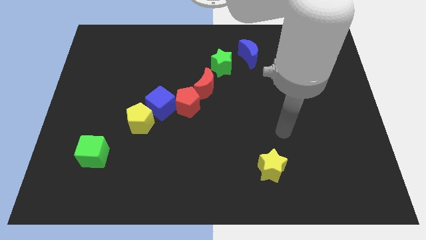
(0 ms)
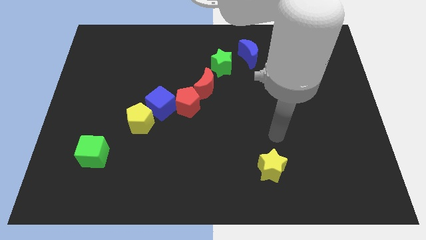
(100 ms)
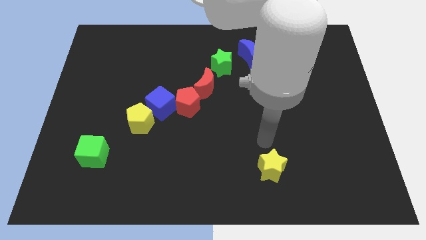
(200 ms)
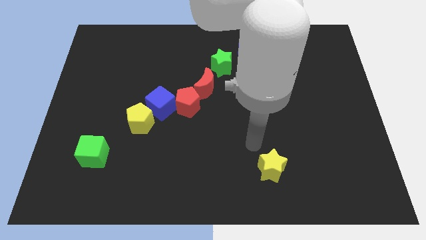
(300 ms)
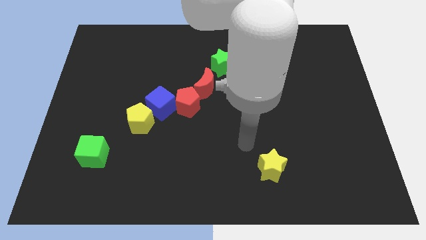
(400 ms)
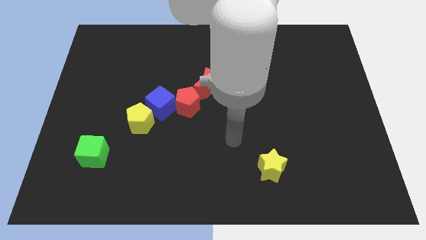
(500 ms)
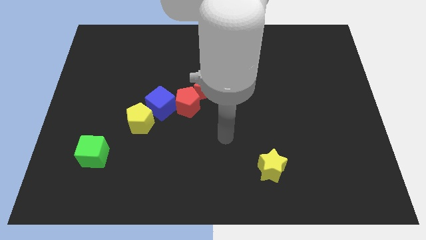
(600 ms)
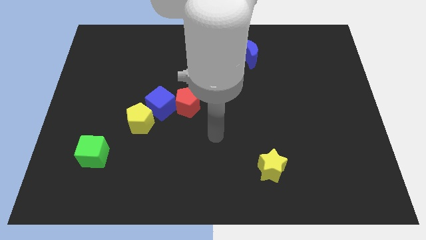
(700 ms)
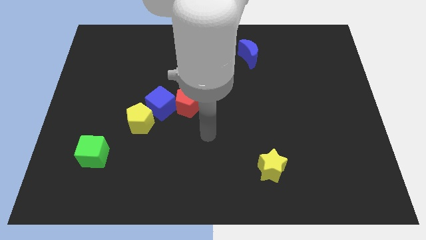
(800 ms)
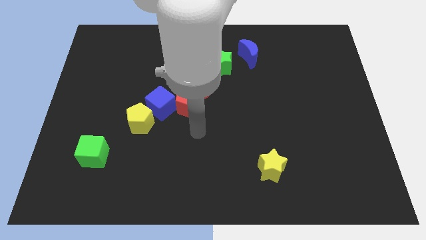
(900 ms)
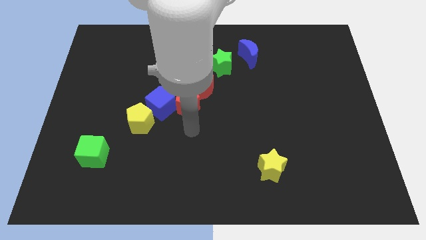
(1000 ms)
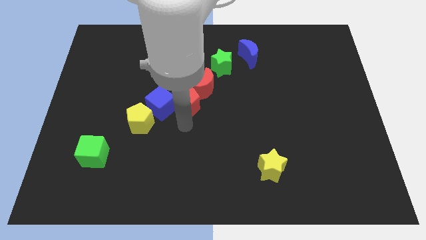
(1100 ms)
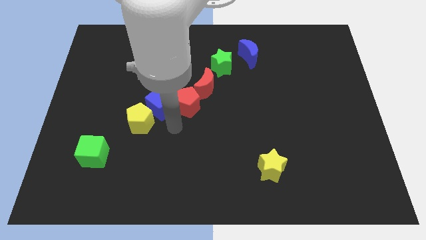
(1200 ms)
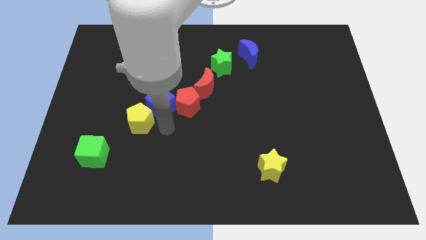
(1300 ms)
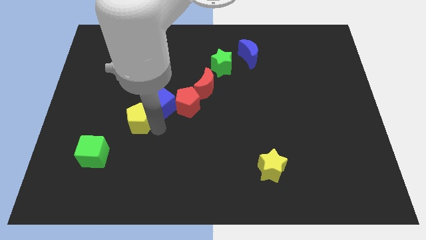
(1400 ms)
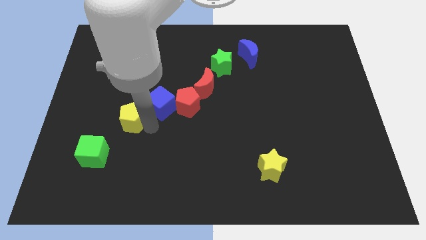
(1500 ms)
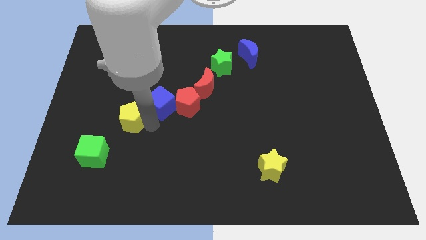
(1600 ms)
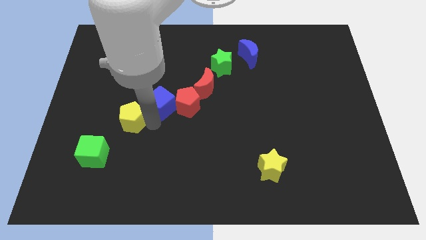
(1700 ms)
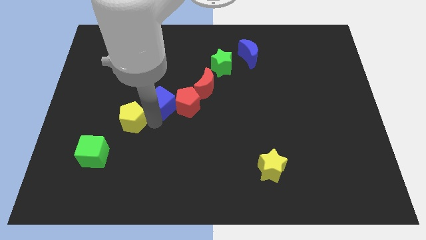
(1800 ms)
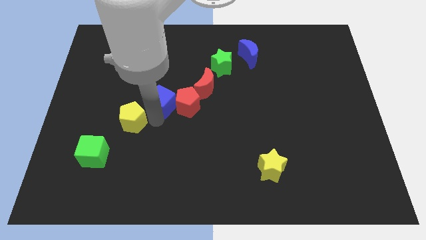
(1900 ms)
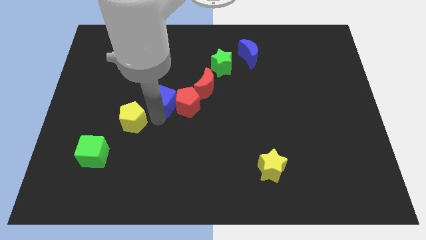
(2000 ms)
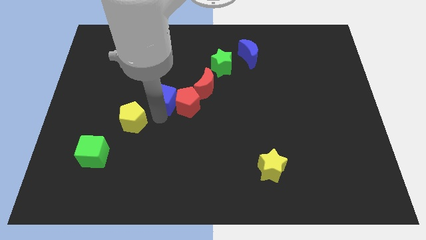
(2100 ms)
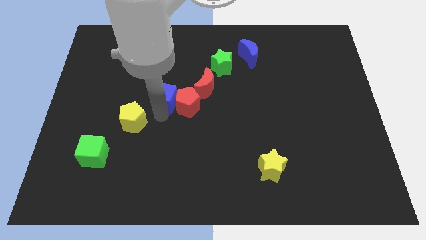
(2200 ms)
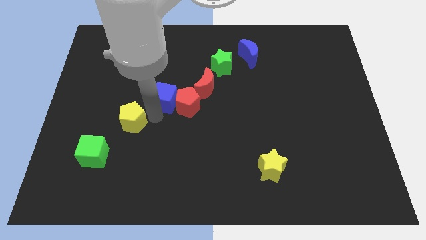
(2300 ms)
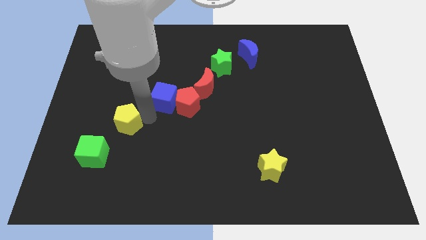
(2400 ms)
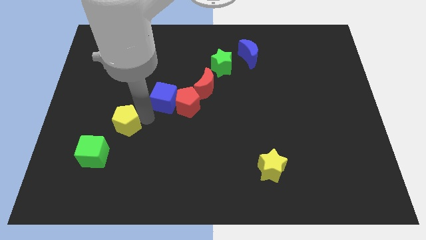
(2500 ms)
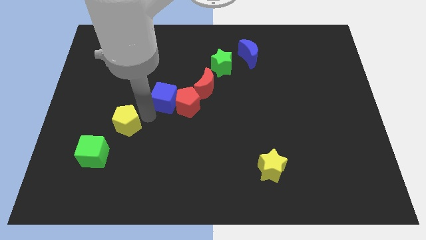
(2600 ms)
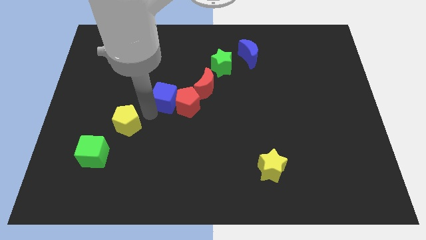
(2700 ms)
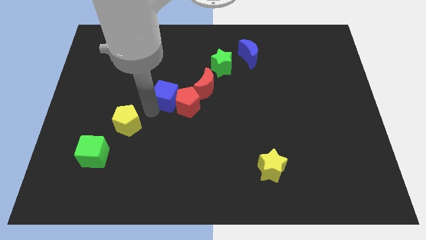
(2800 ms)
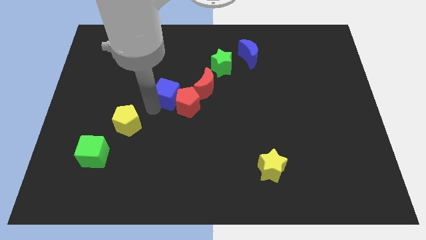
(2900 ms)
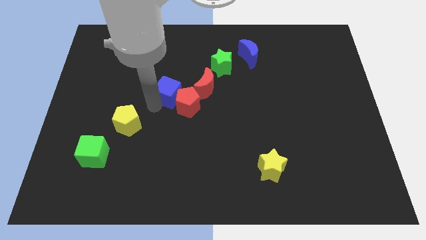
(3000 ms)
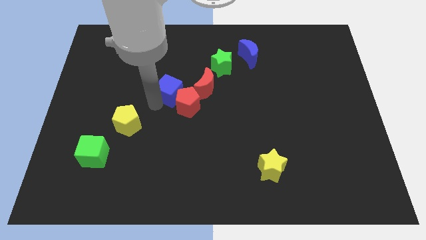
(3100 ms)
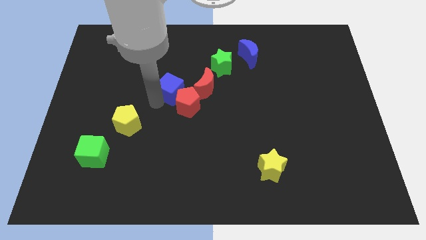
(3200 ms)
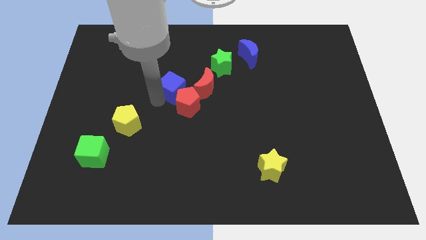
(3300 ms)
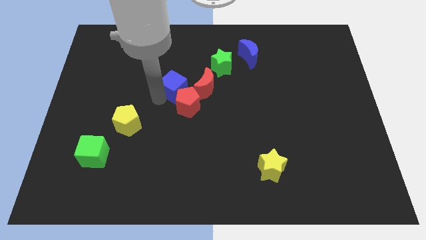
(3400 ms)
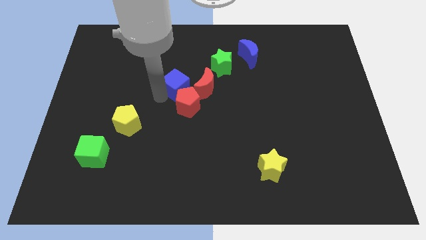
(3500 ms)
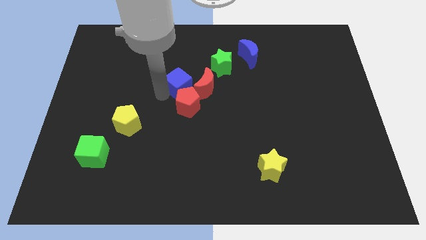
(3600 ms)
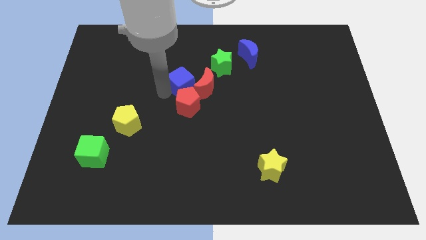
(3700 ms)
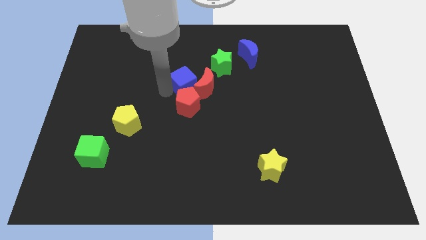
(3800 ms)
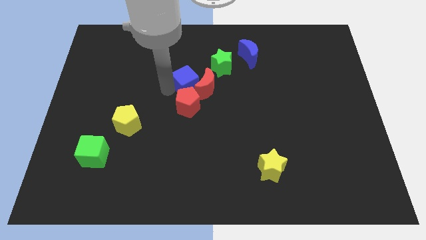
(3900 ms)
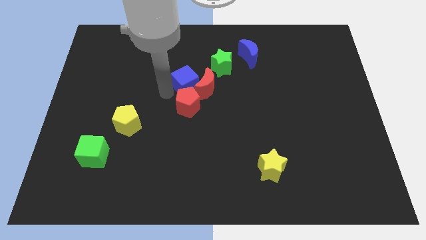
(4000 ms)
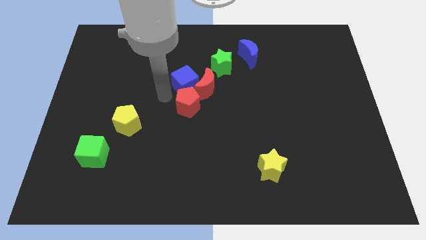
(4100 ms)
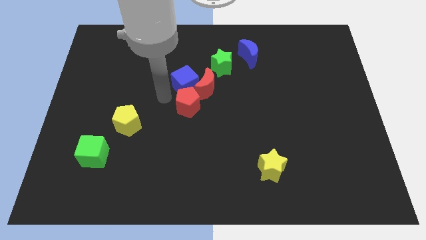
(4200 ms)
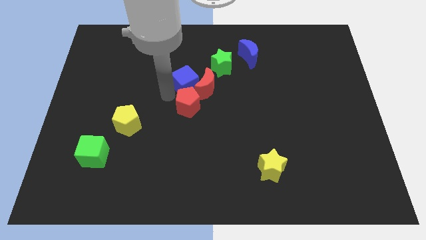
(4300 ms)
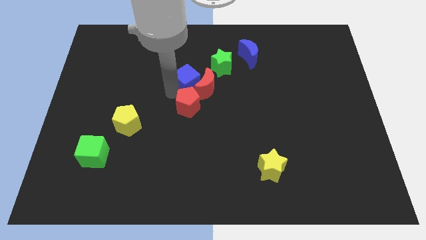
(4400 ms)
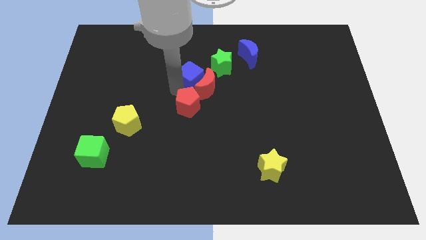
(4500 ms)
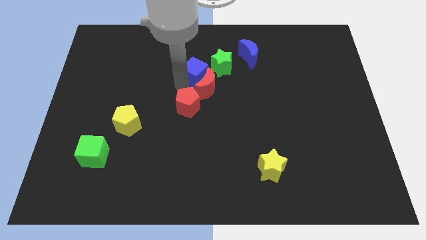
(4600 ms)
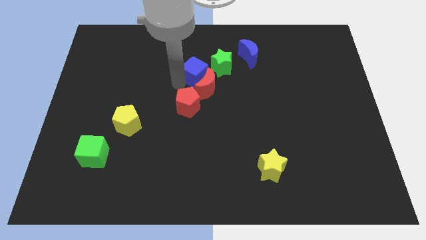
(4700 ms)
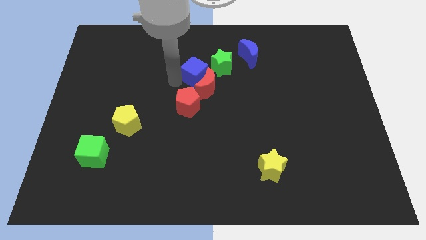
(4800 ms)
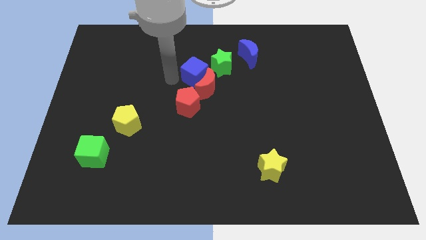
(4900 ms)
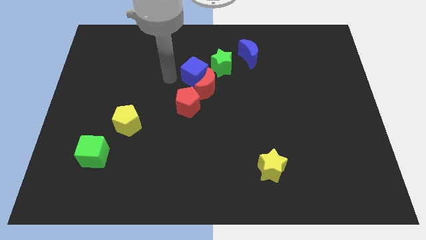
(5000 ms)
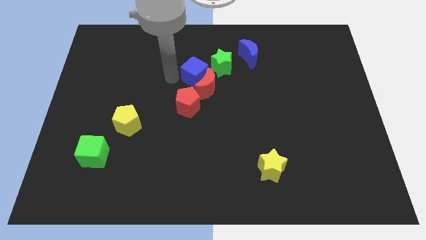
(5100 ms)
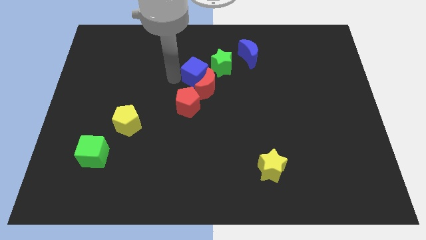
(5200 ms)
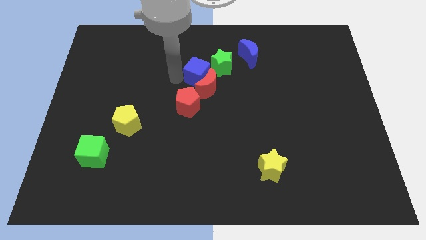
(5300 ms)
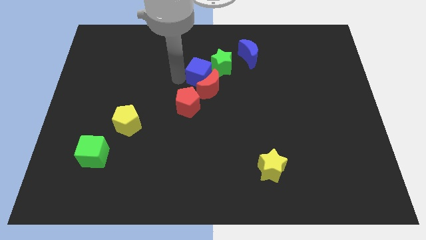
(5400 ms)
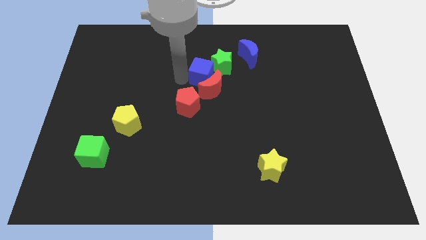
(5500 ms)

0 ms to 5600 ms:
put the blue cube towards the green star

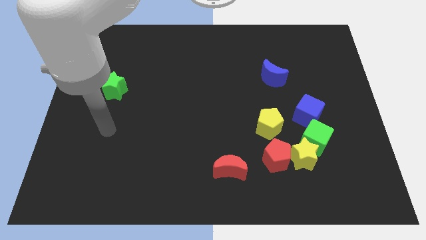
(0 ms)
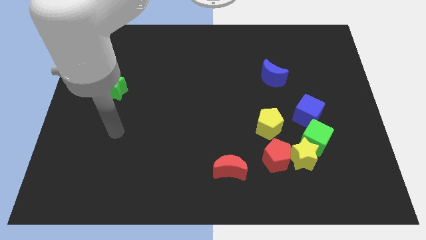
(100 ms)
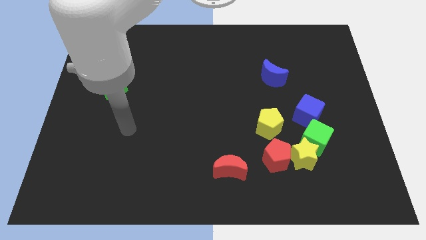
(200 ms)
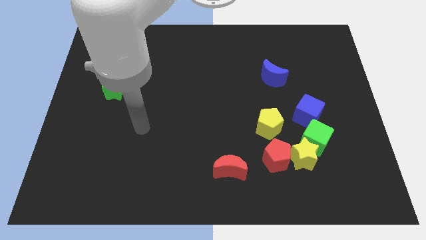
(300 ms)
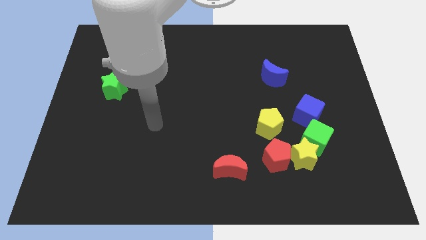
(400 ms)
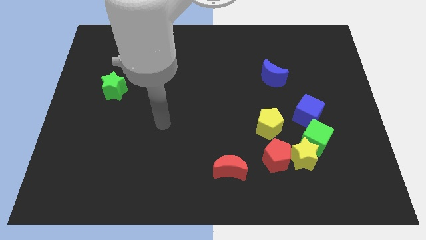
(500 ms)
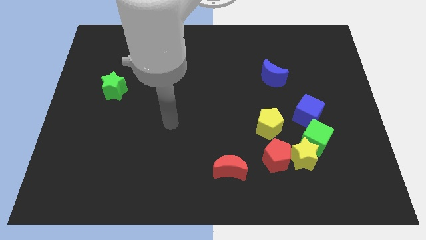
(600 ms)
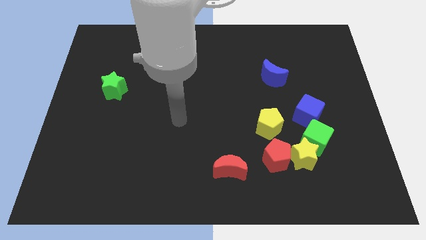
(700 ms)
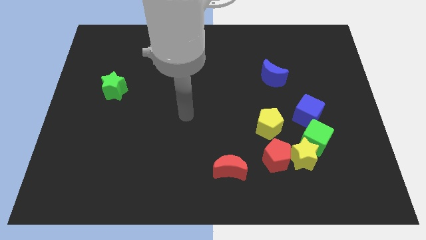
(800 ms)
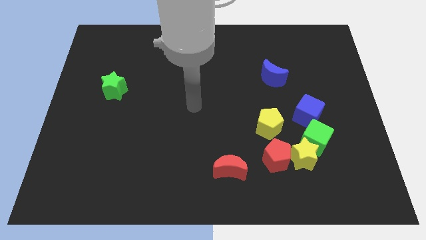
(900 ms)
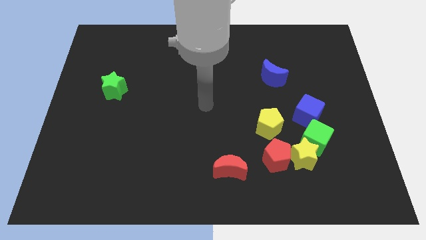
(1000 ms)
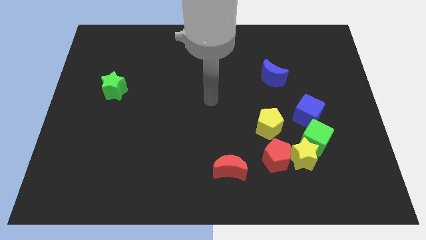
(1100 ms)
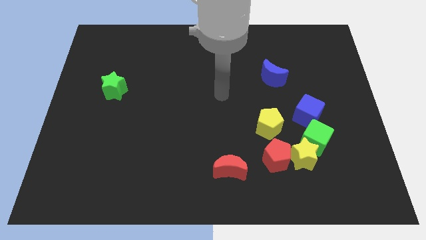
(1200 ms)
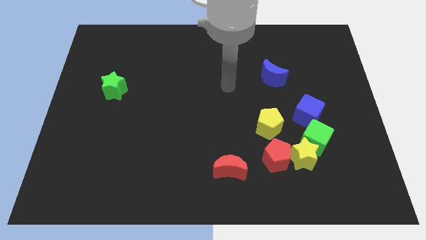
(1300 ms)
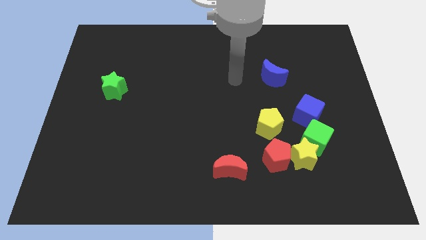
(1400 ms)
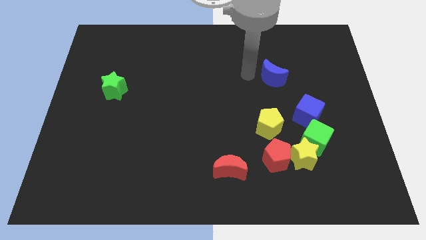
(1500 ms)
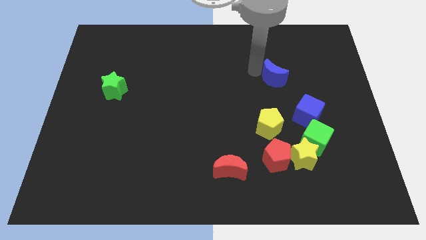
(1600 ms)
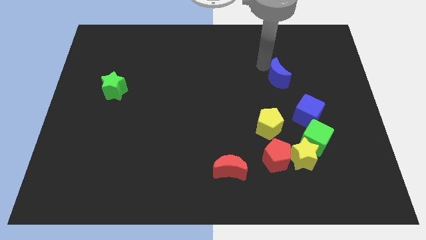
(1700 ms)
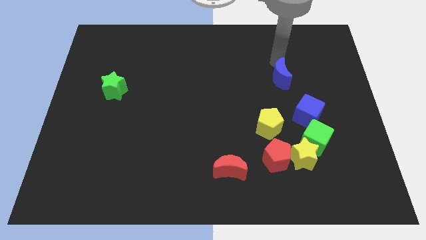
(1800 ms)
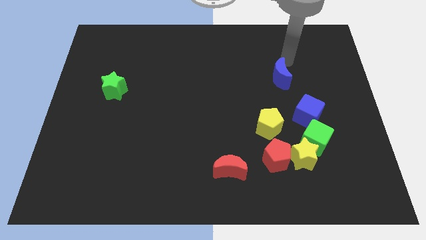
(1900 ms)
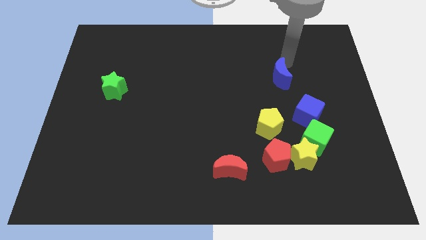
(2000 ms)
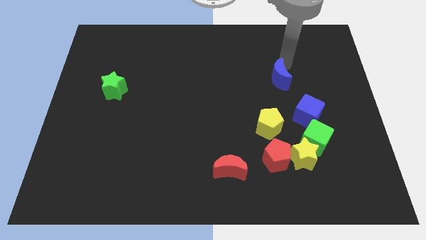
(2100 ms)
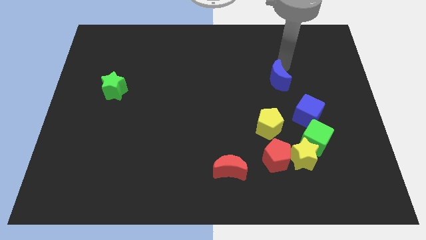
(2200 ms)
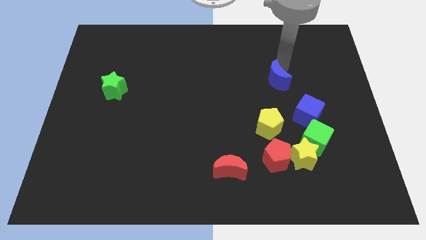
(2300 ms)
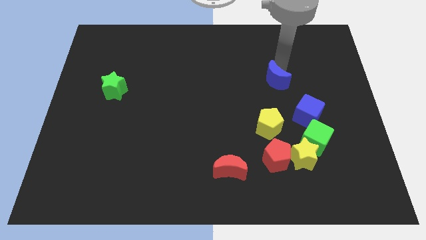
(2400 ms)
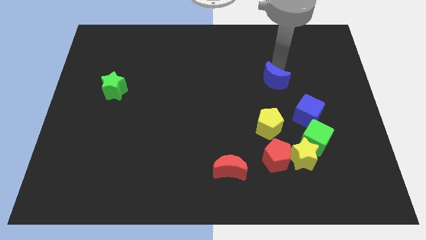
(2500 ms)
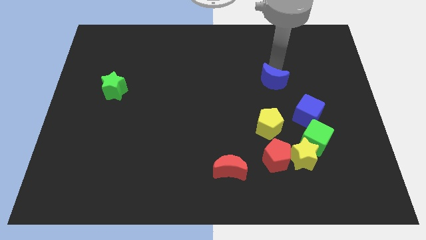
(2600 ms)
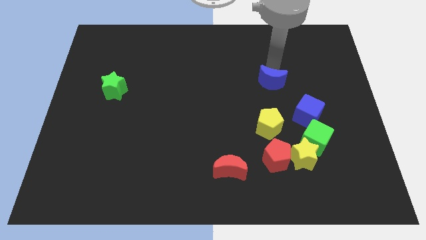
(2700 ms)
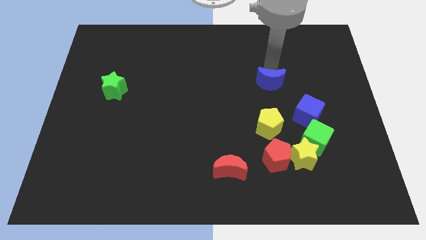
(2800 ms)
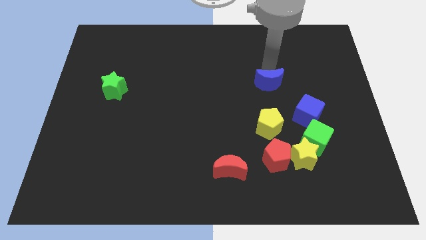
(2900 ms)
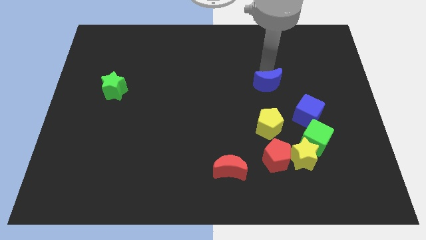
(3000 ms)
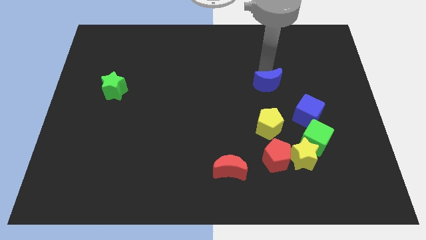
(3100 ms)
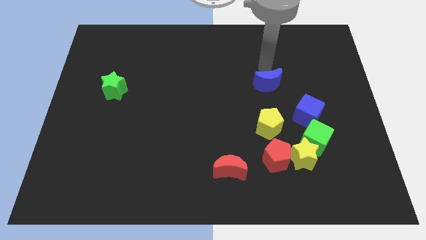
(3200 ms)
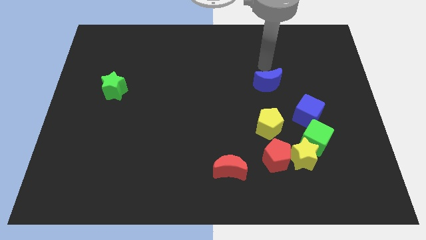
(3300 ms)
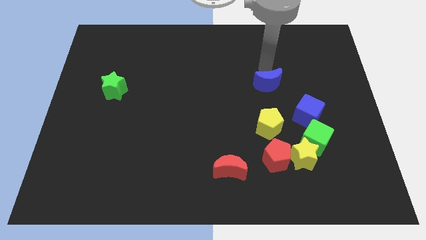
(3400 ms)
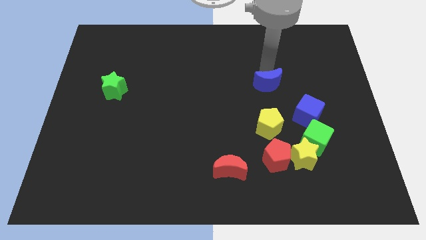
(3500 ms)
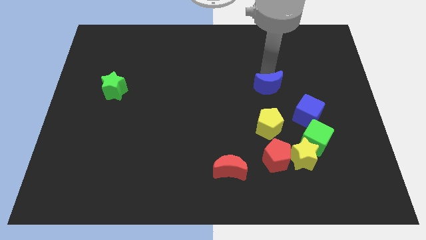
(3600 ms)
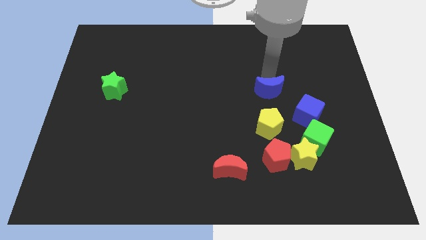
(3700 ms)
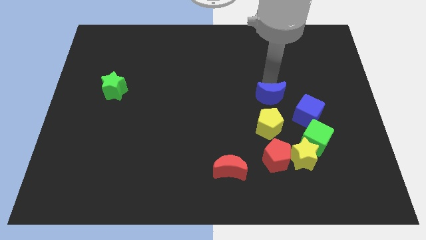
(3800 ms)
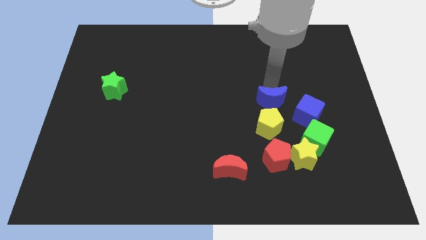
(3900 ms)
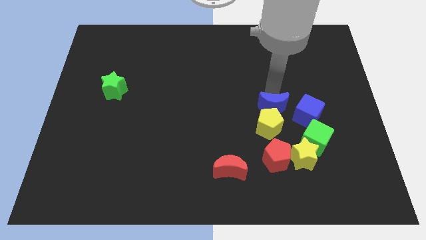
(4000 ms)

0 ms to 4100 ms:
slide the blue moon to the yellow pentagon
